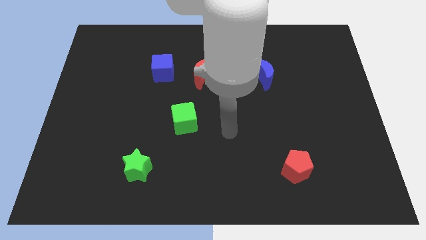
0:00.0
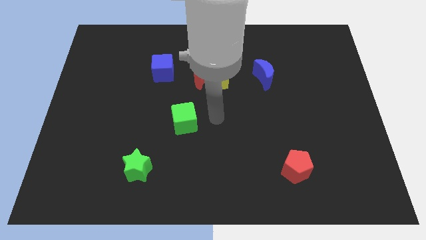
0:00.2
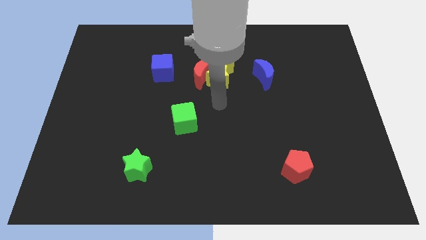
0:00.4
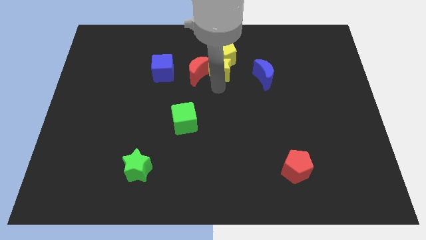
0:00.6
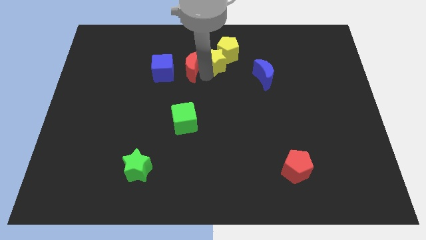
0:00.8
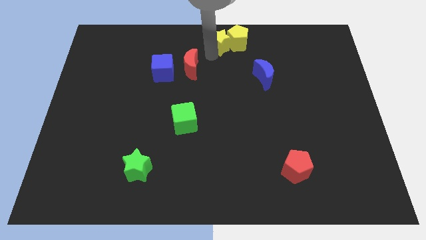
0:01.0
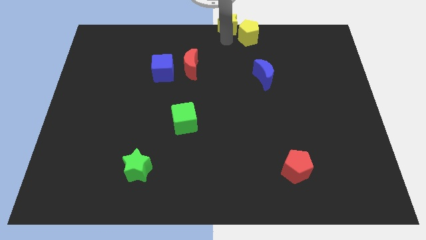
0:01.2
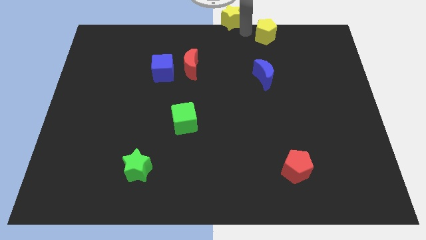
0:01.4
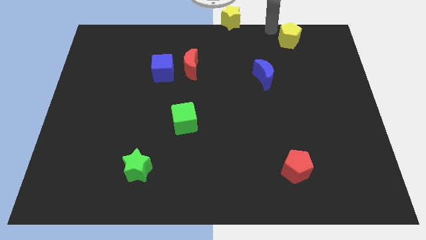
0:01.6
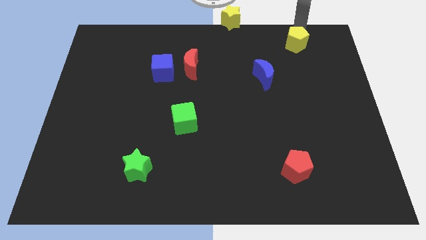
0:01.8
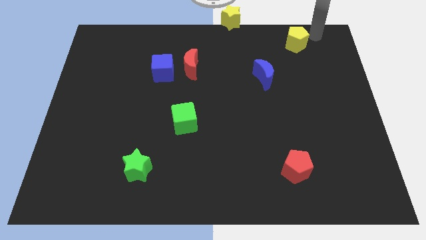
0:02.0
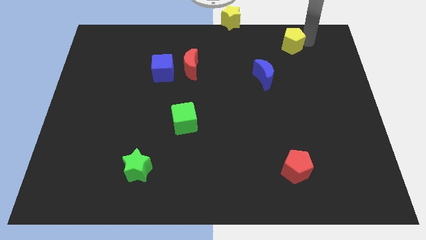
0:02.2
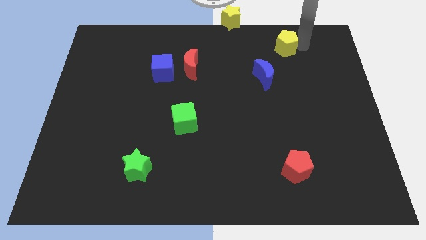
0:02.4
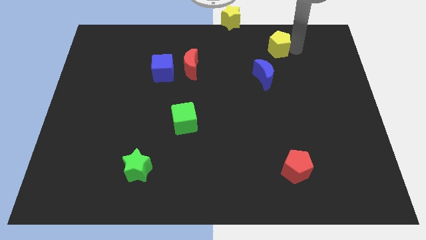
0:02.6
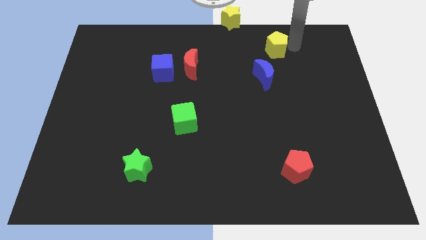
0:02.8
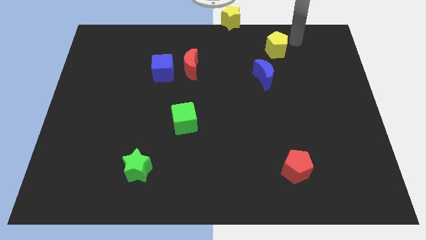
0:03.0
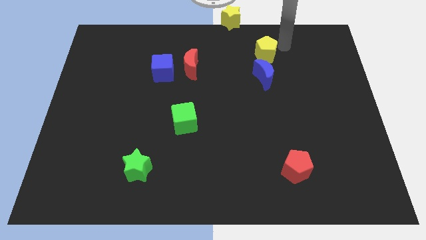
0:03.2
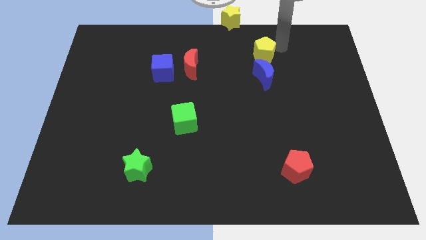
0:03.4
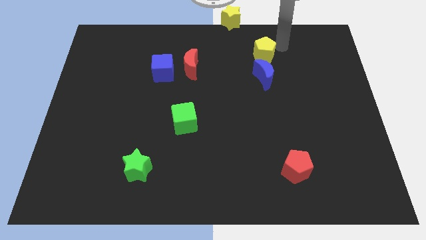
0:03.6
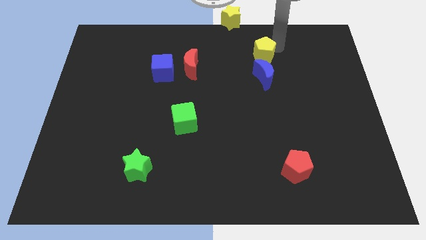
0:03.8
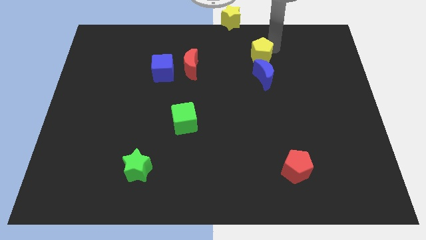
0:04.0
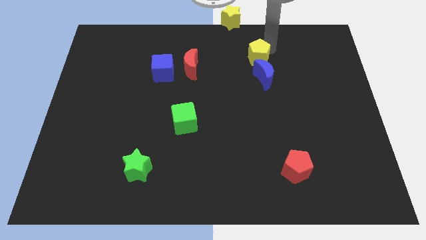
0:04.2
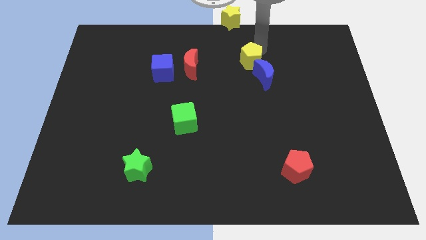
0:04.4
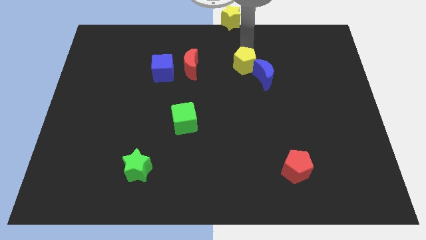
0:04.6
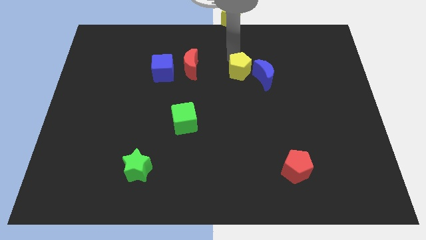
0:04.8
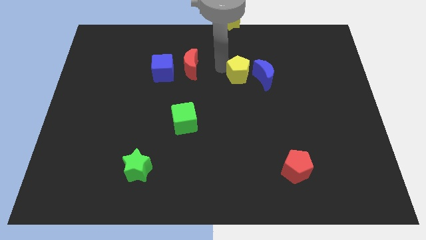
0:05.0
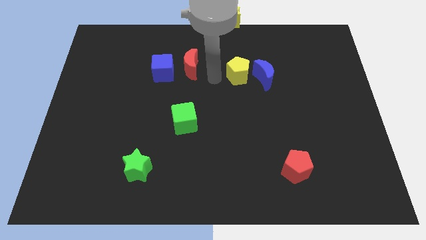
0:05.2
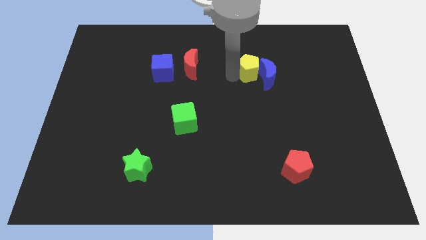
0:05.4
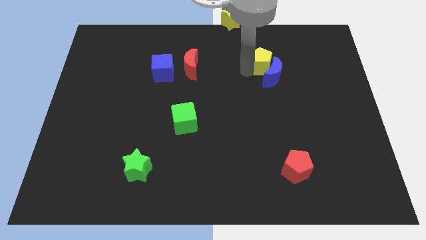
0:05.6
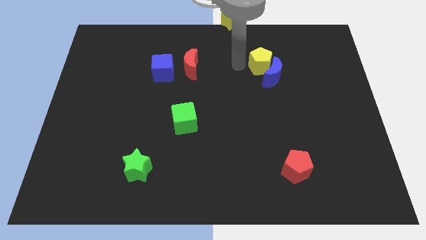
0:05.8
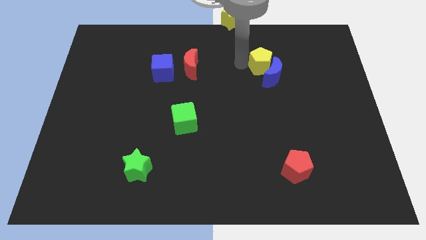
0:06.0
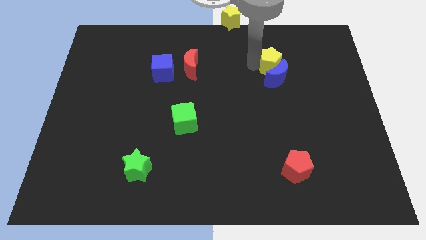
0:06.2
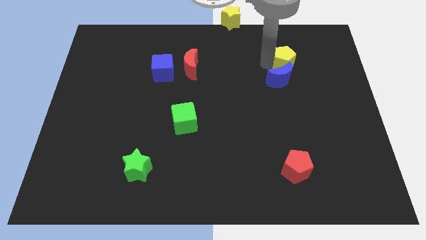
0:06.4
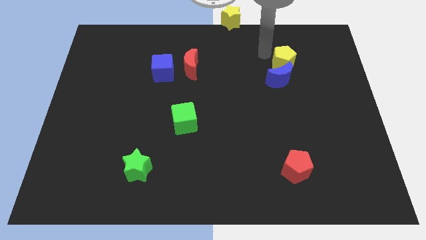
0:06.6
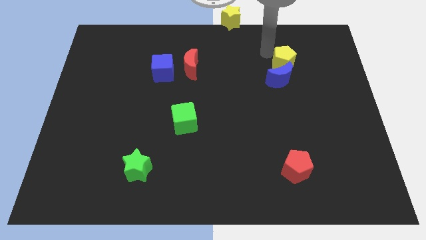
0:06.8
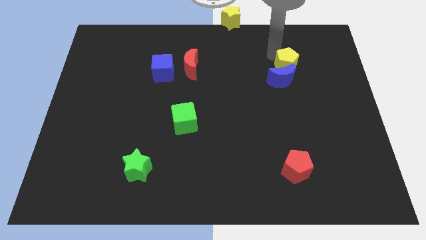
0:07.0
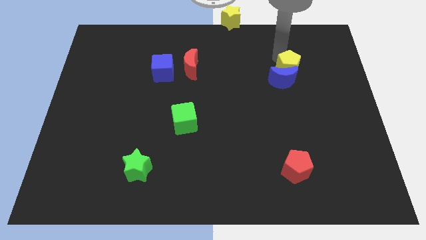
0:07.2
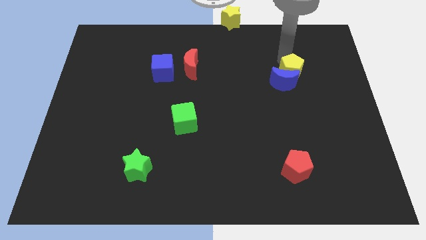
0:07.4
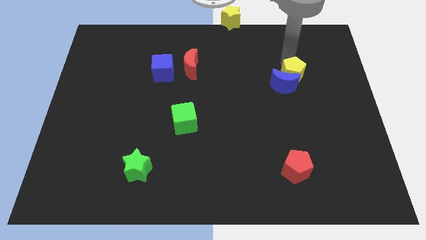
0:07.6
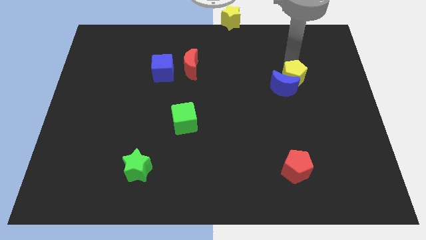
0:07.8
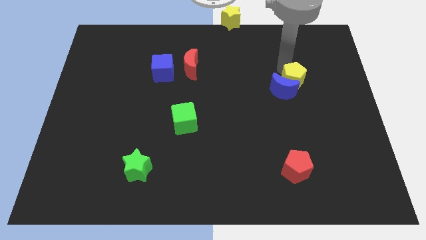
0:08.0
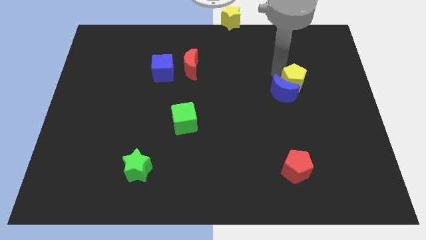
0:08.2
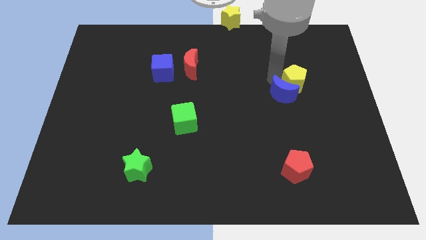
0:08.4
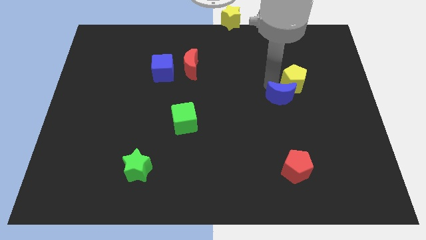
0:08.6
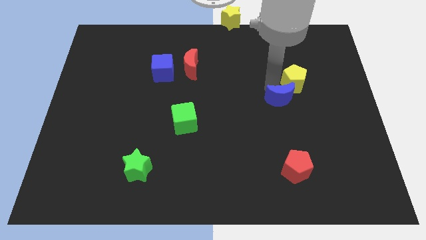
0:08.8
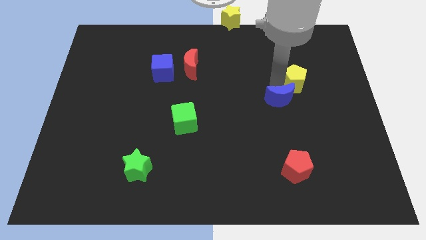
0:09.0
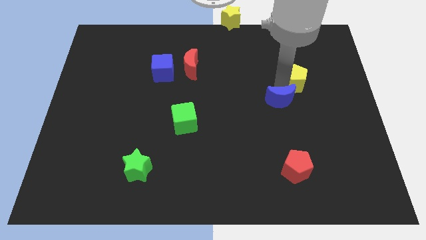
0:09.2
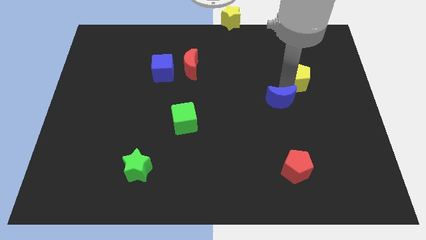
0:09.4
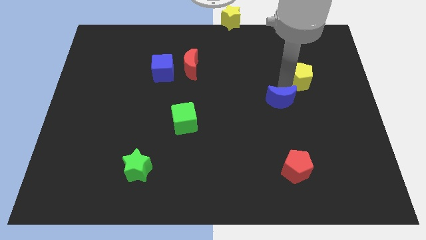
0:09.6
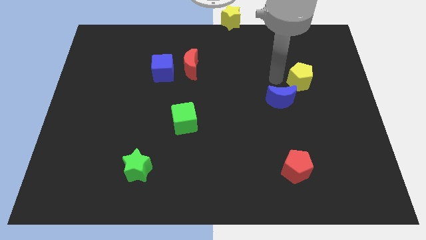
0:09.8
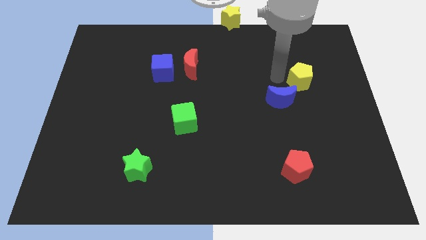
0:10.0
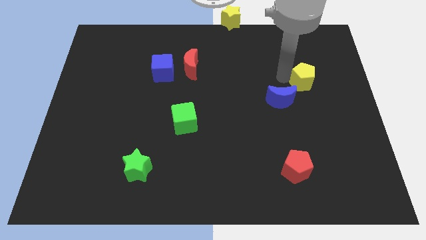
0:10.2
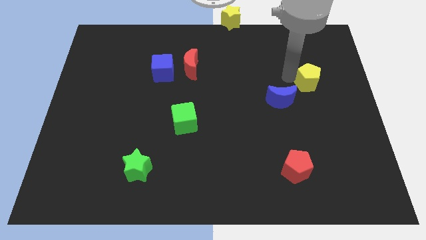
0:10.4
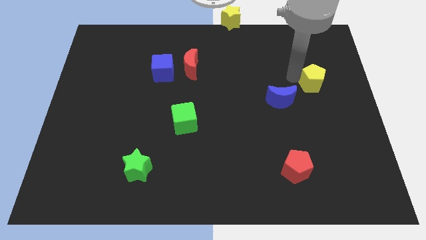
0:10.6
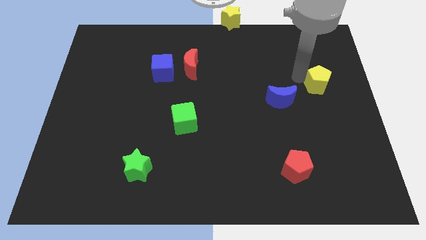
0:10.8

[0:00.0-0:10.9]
slide the yellow pentagon to the right side

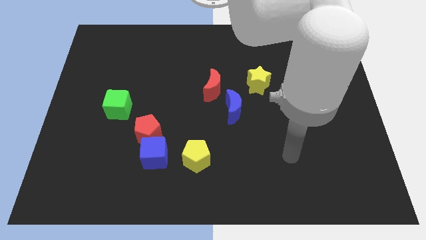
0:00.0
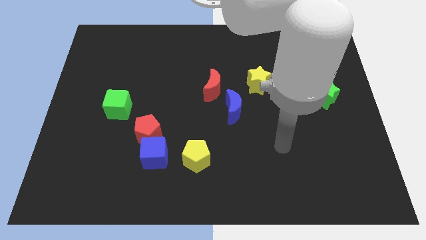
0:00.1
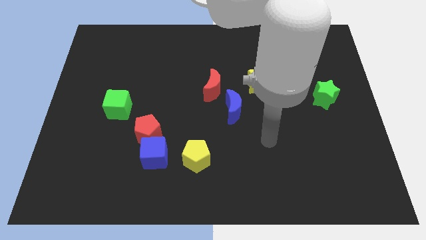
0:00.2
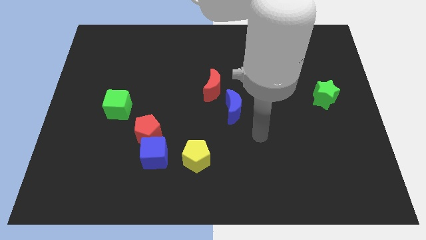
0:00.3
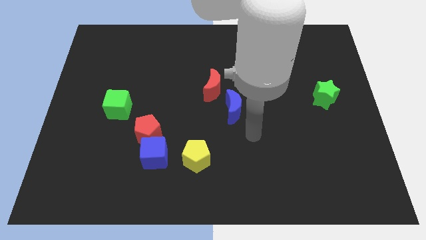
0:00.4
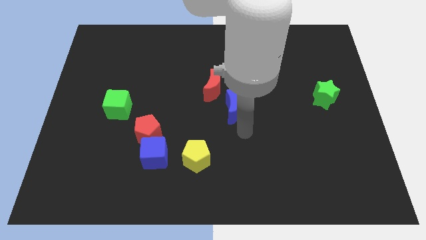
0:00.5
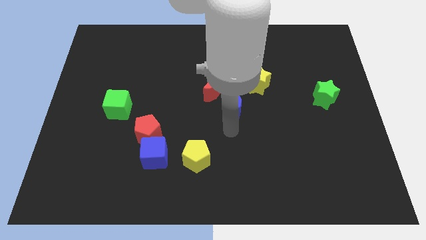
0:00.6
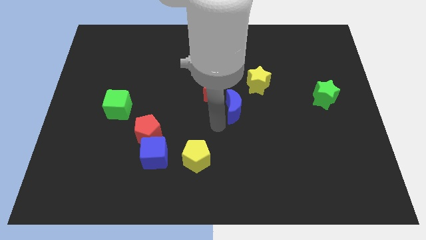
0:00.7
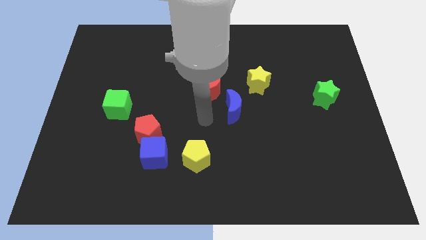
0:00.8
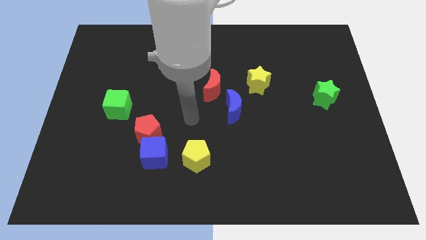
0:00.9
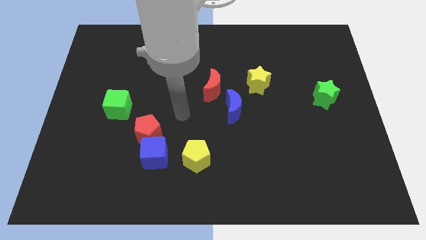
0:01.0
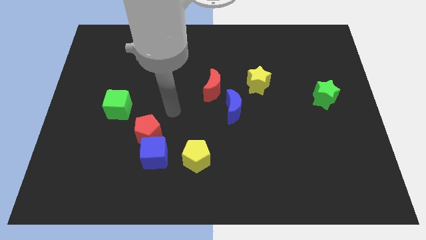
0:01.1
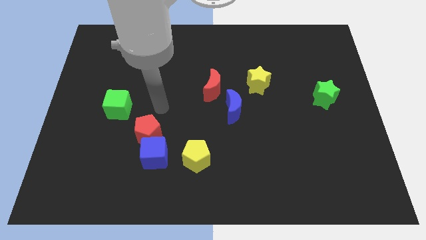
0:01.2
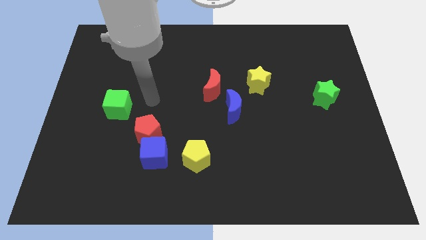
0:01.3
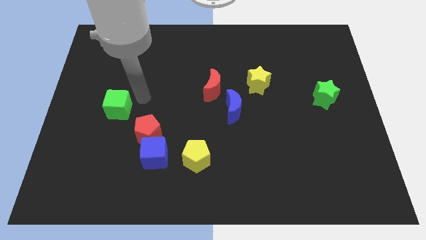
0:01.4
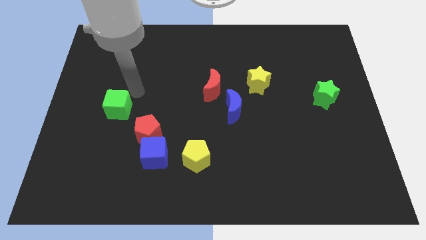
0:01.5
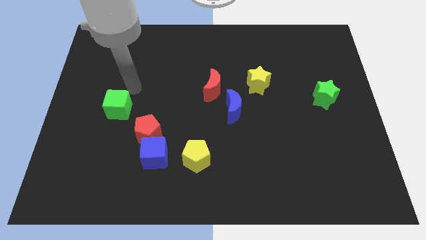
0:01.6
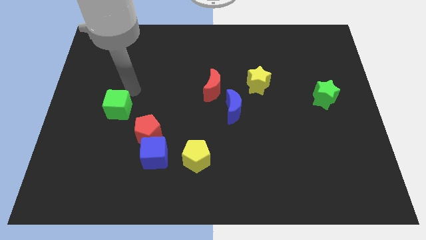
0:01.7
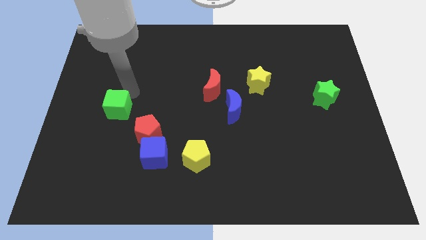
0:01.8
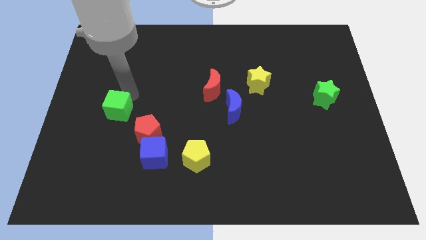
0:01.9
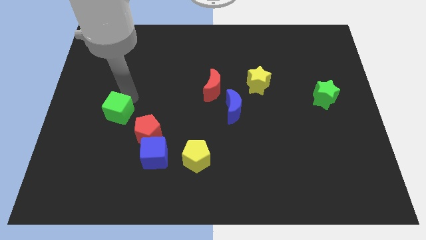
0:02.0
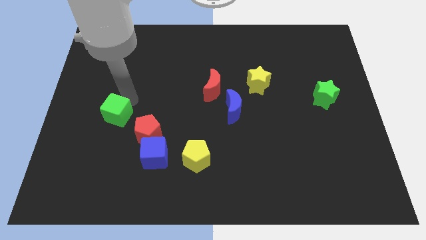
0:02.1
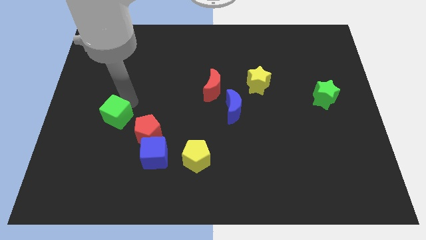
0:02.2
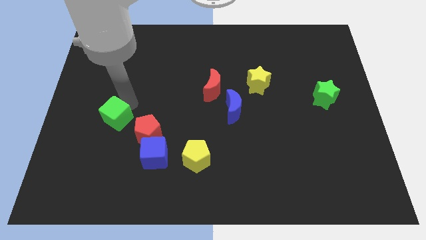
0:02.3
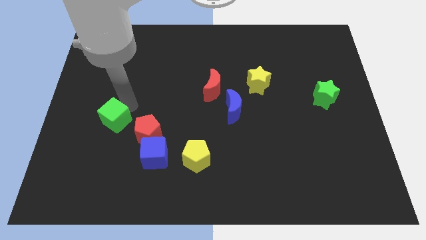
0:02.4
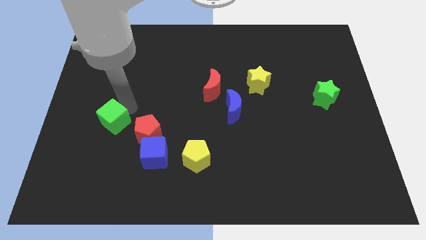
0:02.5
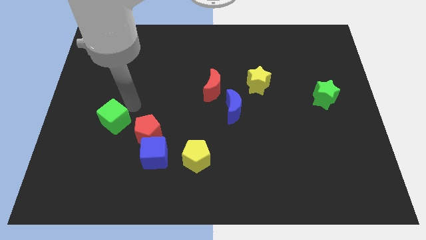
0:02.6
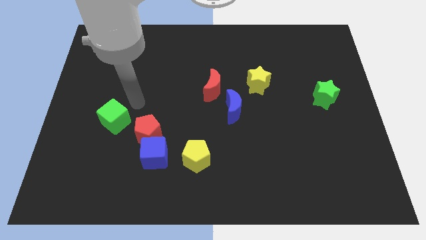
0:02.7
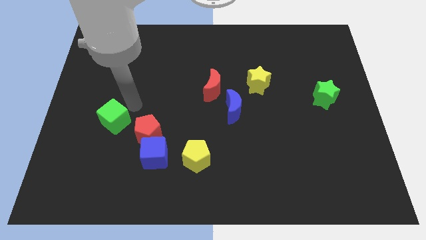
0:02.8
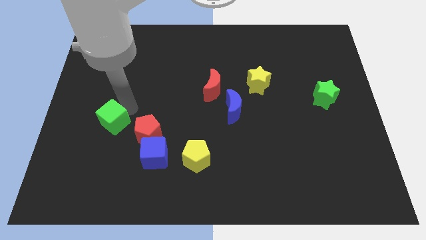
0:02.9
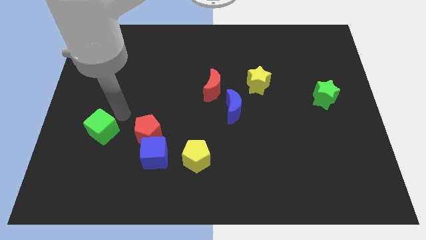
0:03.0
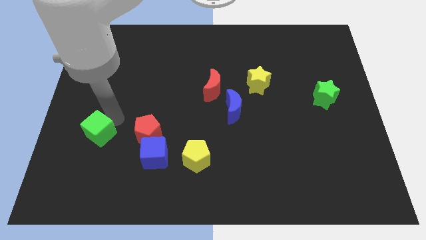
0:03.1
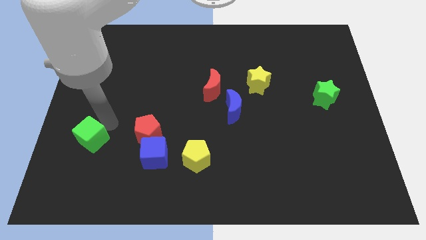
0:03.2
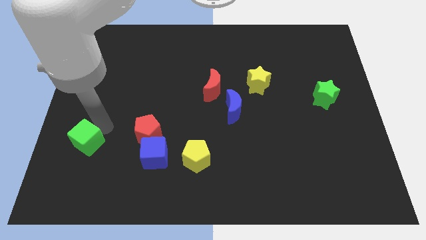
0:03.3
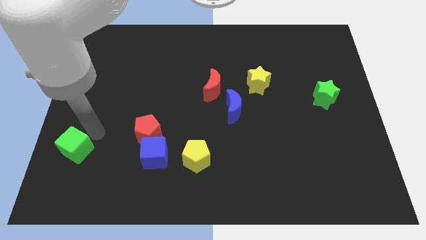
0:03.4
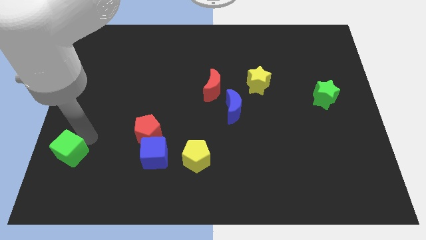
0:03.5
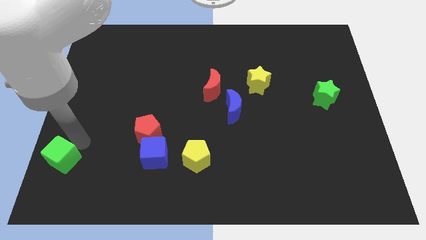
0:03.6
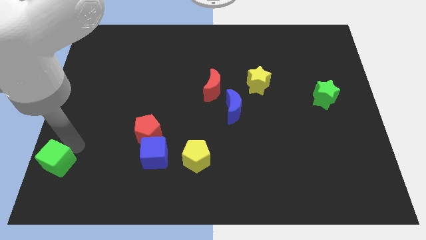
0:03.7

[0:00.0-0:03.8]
put the green cube to the bottom left corner
